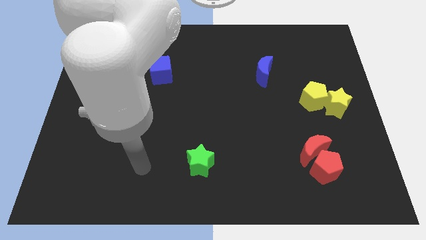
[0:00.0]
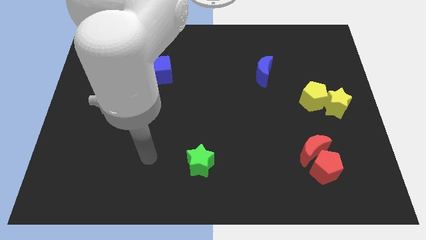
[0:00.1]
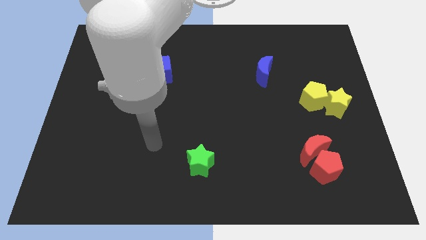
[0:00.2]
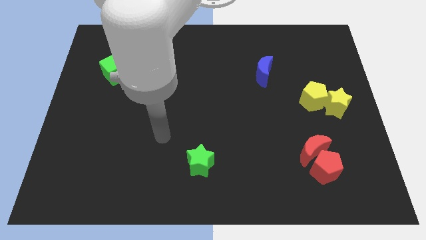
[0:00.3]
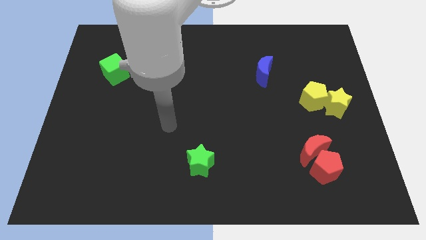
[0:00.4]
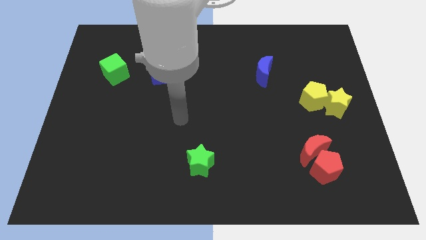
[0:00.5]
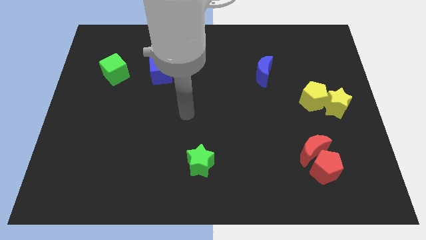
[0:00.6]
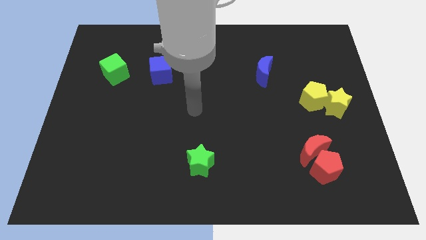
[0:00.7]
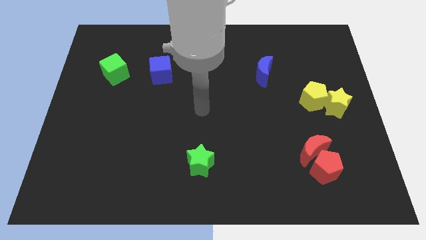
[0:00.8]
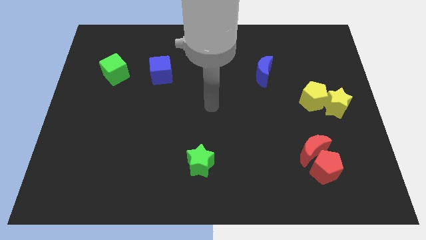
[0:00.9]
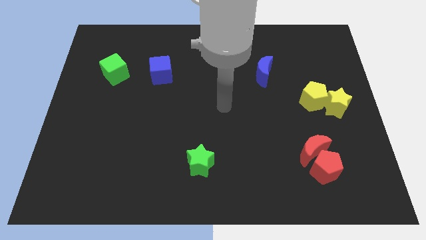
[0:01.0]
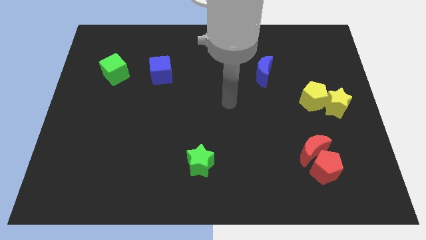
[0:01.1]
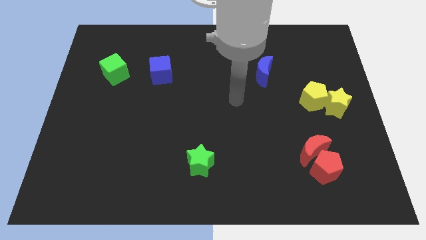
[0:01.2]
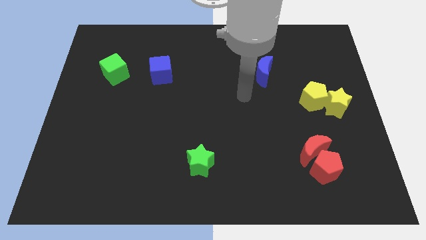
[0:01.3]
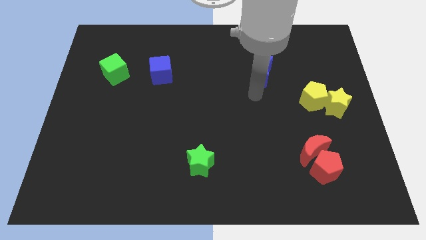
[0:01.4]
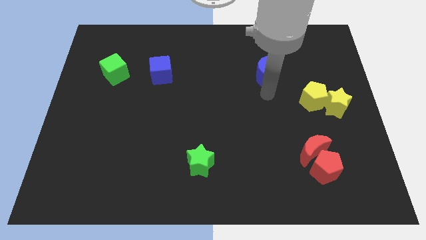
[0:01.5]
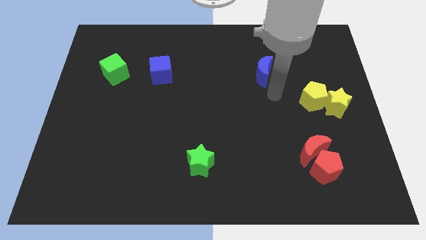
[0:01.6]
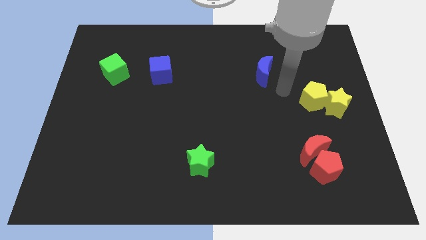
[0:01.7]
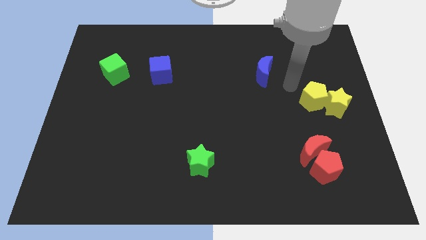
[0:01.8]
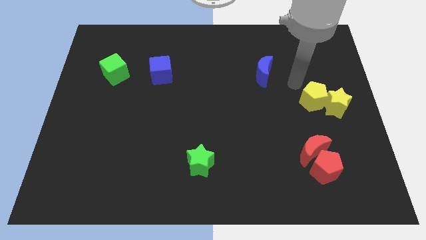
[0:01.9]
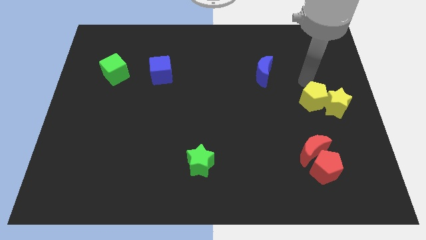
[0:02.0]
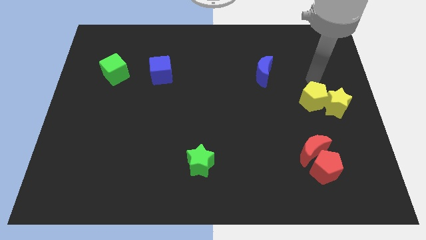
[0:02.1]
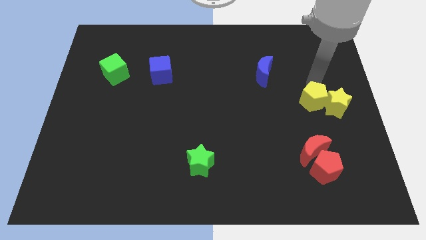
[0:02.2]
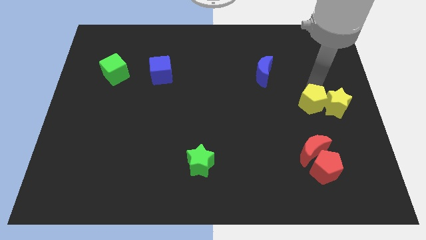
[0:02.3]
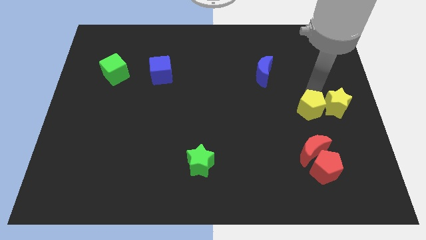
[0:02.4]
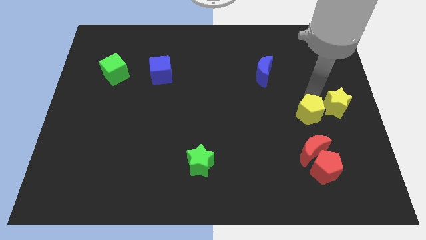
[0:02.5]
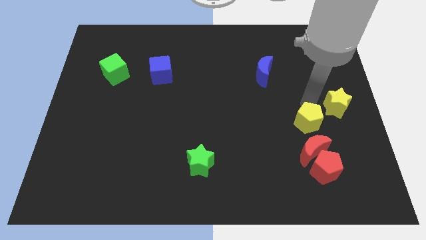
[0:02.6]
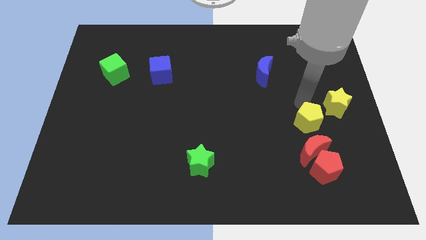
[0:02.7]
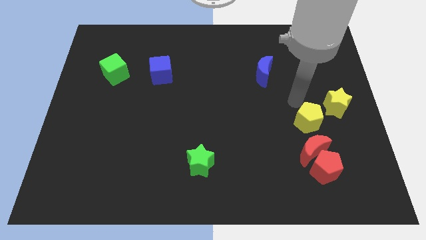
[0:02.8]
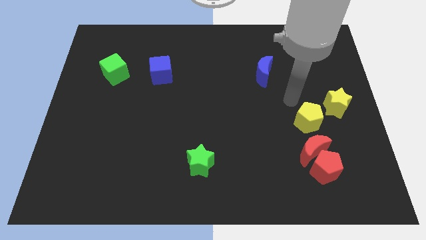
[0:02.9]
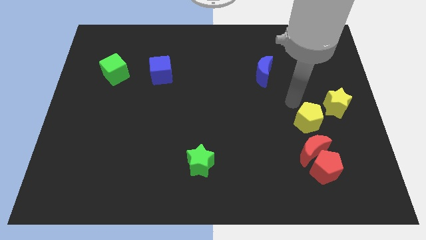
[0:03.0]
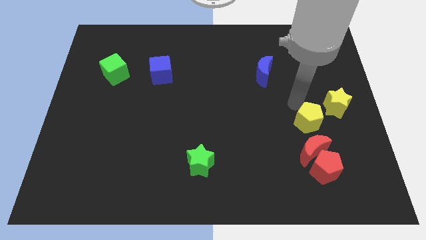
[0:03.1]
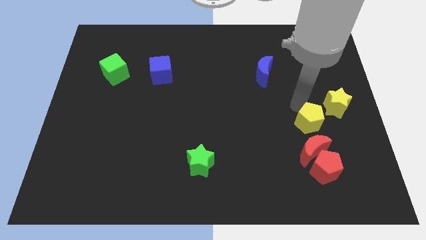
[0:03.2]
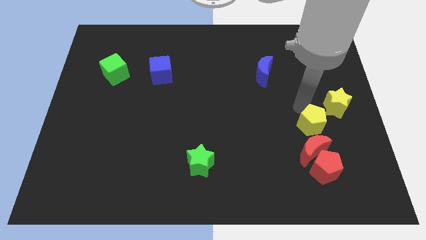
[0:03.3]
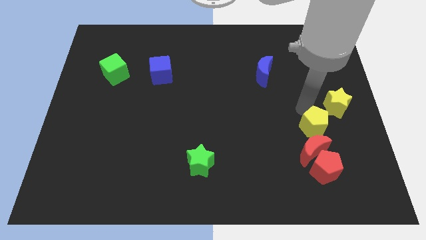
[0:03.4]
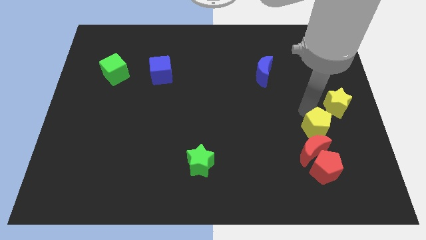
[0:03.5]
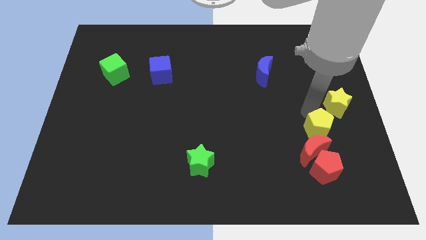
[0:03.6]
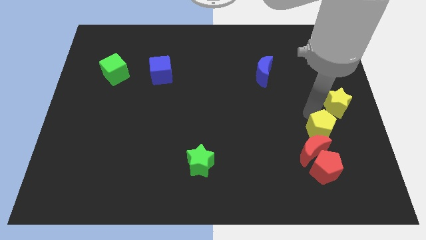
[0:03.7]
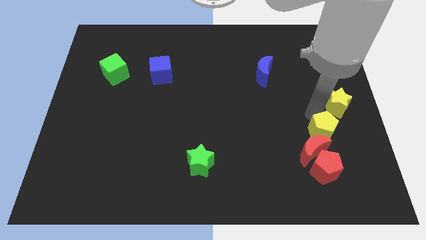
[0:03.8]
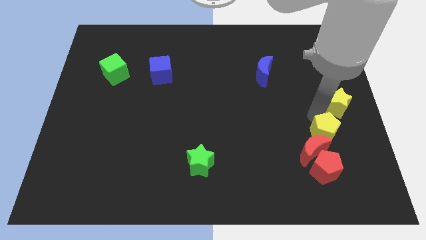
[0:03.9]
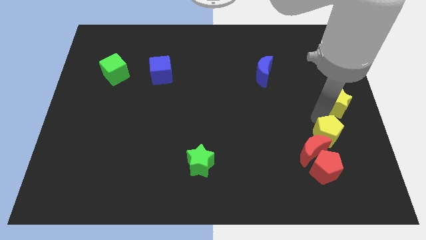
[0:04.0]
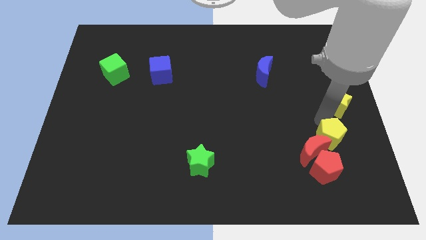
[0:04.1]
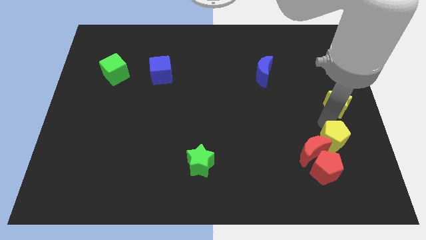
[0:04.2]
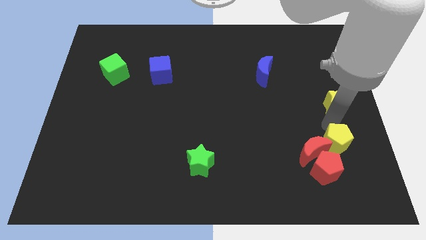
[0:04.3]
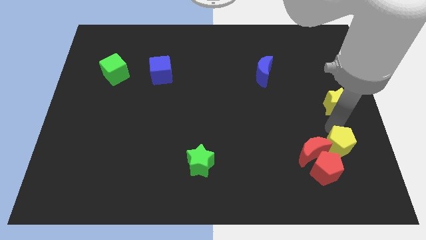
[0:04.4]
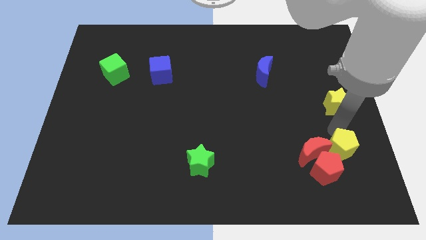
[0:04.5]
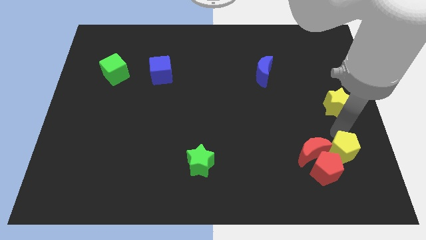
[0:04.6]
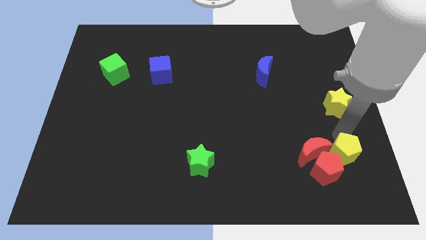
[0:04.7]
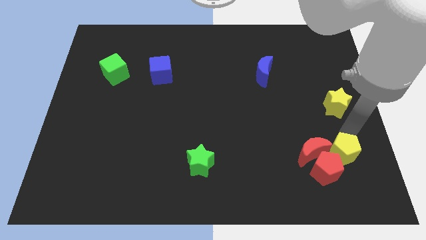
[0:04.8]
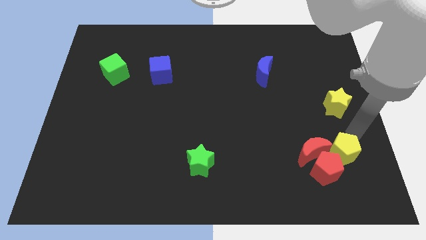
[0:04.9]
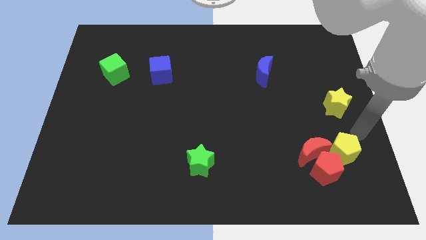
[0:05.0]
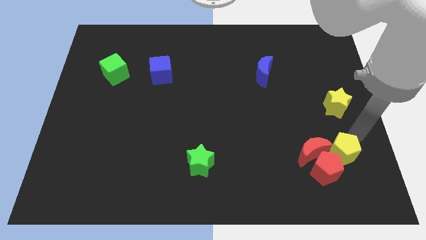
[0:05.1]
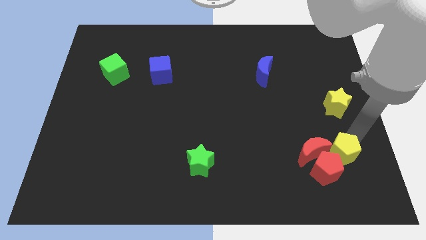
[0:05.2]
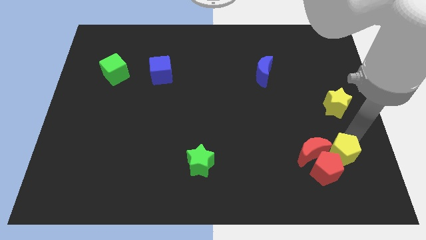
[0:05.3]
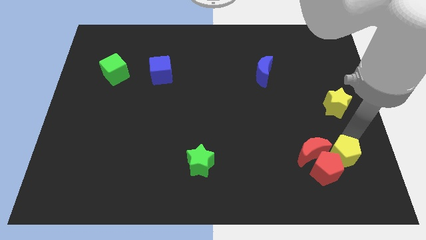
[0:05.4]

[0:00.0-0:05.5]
move the yellow pentagon towards the red pentagon

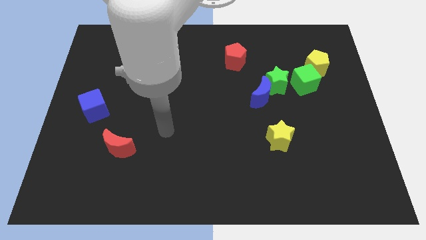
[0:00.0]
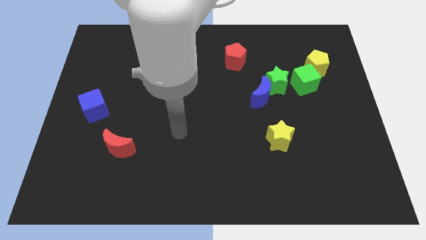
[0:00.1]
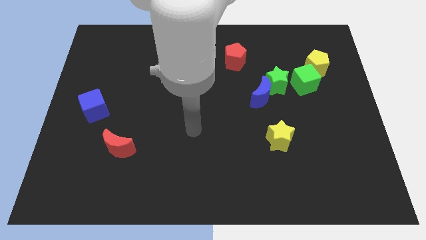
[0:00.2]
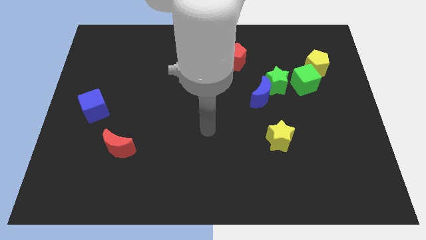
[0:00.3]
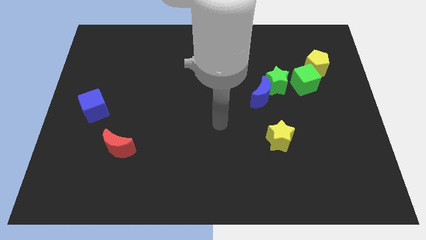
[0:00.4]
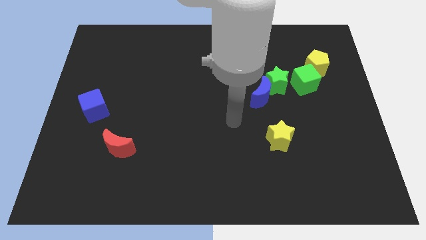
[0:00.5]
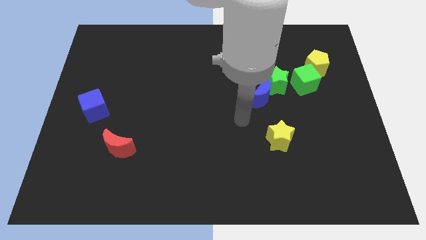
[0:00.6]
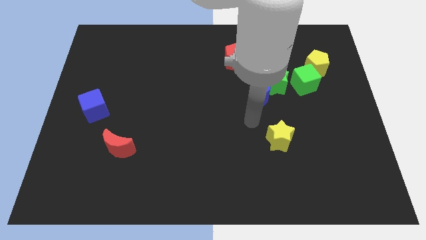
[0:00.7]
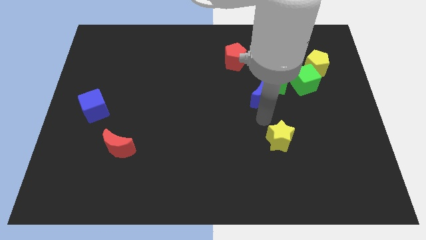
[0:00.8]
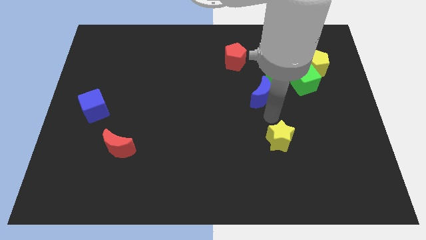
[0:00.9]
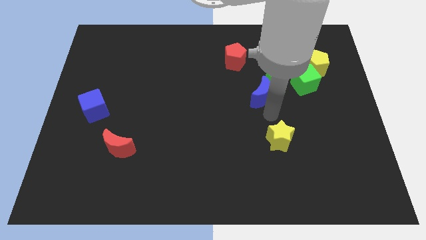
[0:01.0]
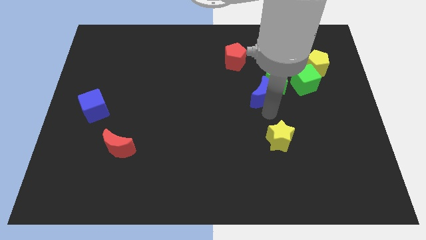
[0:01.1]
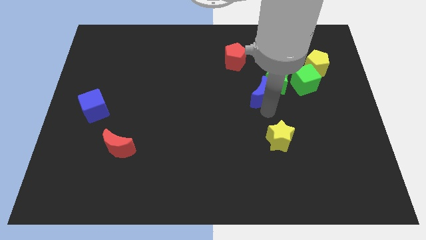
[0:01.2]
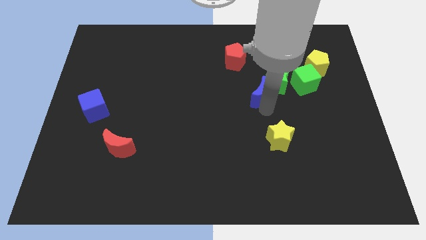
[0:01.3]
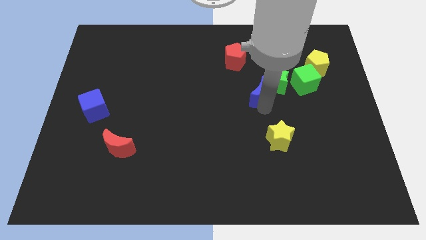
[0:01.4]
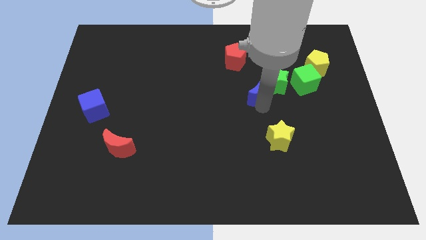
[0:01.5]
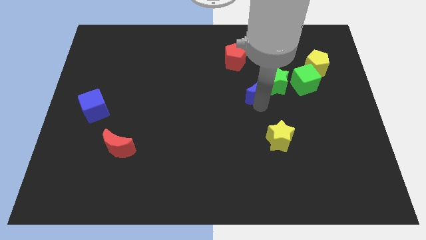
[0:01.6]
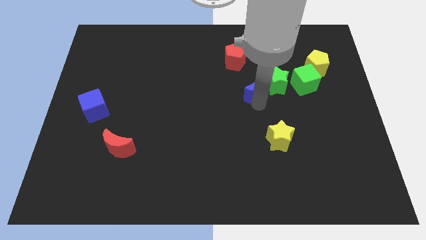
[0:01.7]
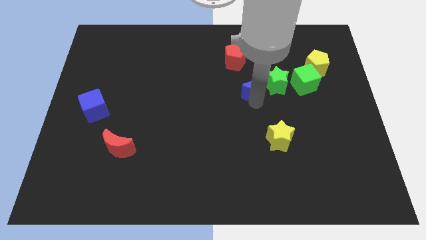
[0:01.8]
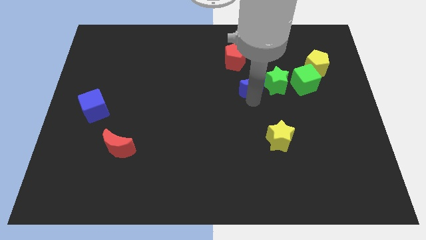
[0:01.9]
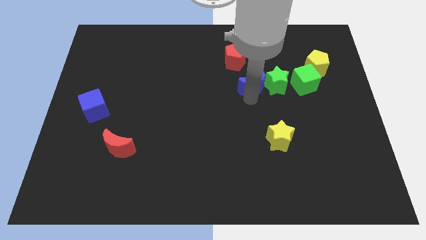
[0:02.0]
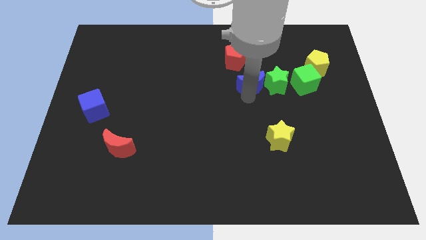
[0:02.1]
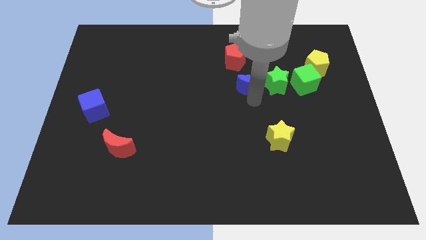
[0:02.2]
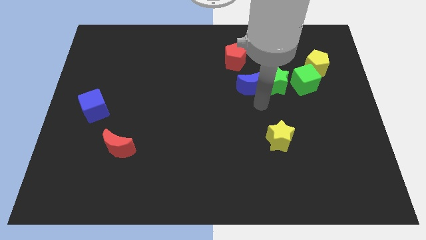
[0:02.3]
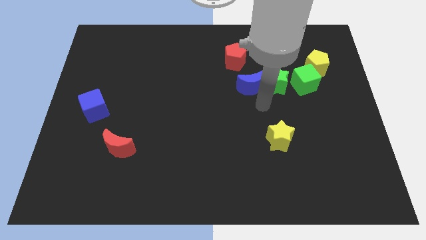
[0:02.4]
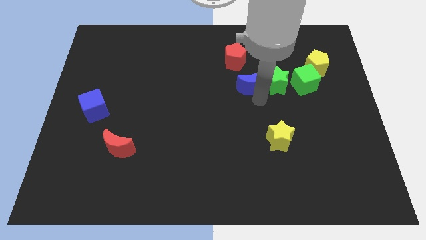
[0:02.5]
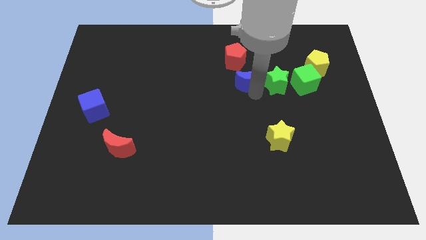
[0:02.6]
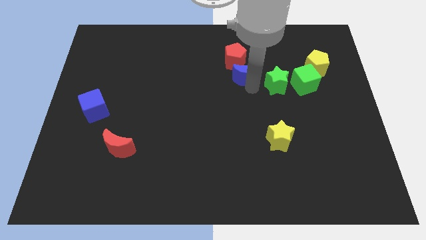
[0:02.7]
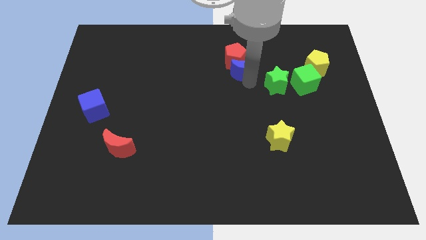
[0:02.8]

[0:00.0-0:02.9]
push the blue moon close to the red pentagon

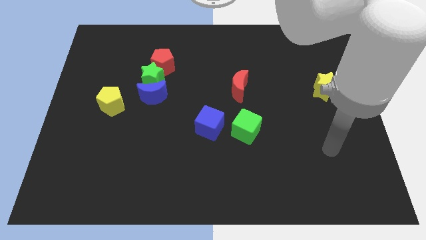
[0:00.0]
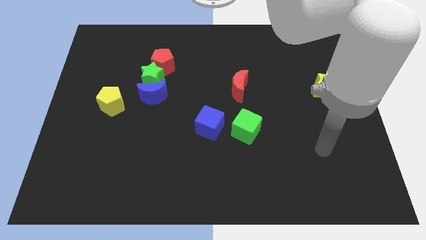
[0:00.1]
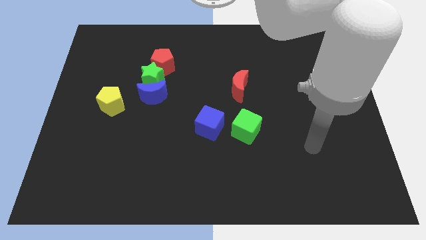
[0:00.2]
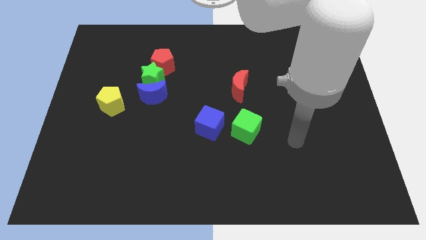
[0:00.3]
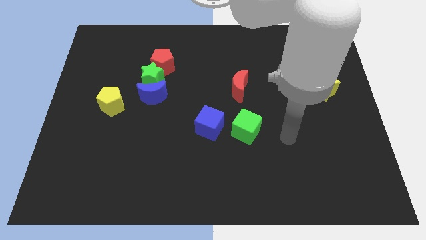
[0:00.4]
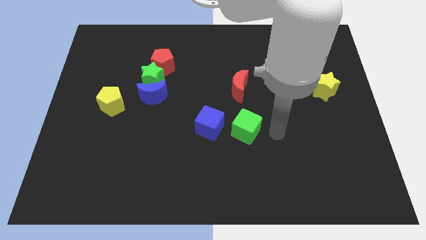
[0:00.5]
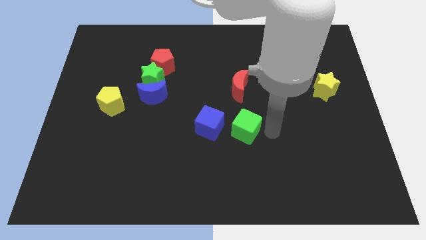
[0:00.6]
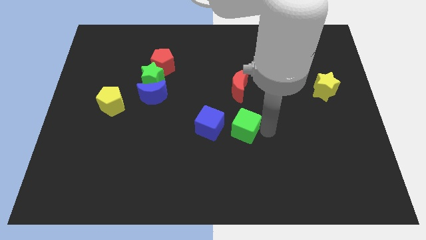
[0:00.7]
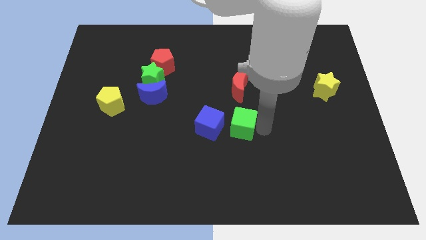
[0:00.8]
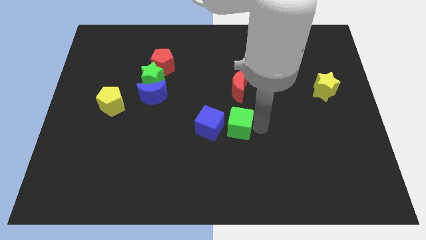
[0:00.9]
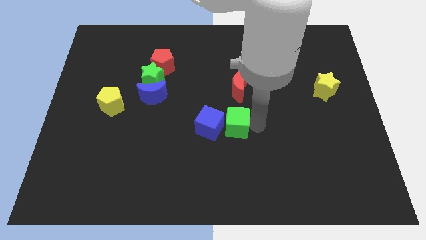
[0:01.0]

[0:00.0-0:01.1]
put the green cube to the blue cube
